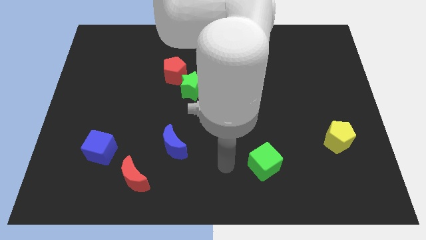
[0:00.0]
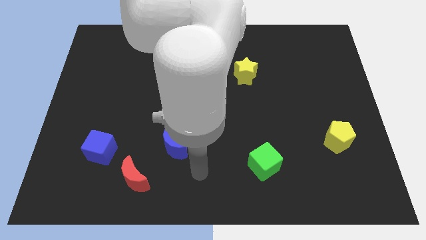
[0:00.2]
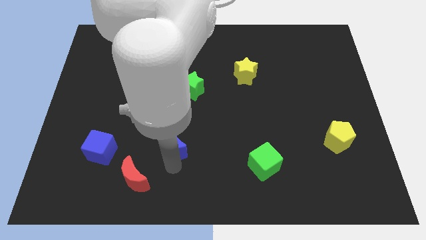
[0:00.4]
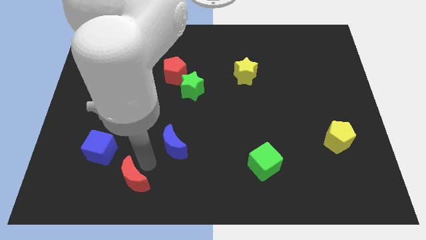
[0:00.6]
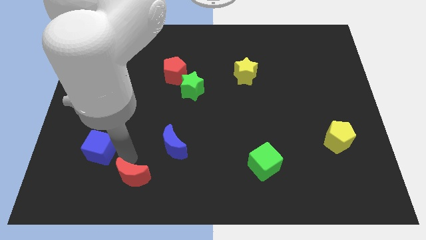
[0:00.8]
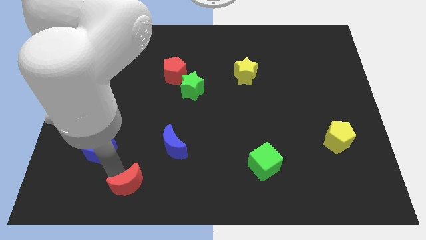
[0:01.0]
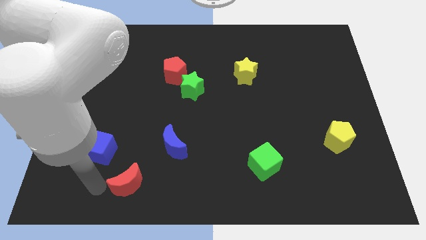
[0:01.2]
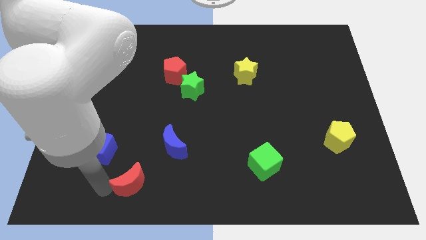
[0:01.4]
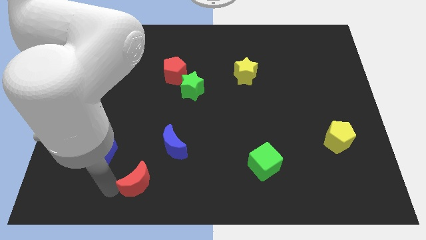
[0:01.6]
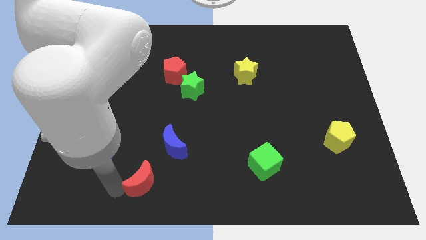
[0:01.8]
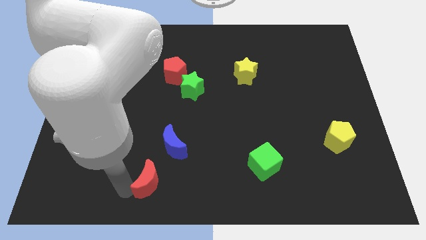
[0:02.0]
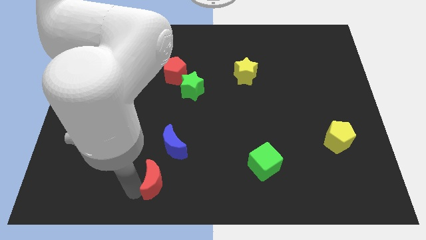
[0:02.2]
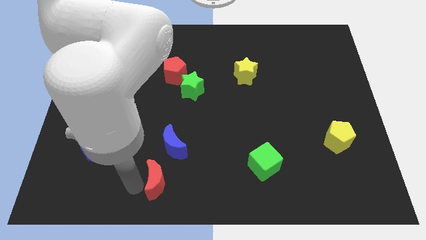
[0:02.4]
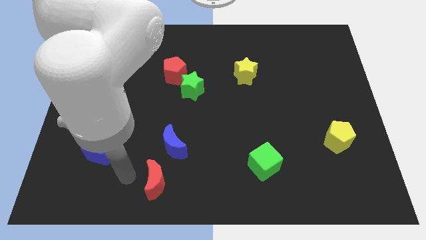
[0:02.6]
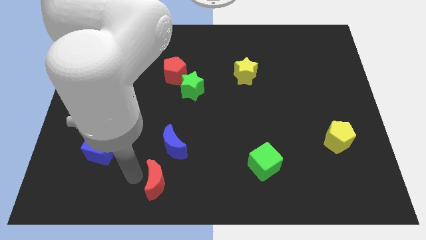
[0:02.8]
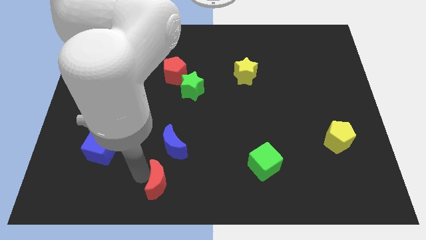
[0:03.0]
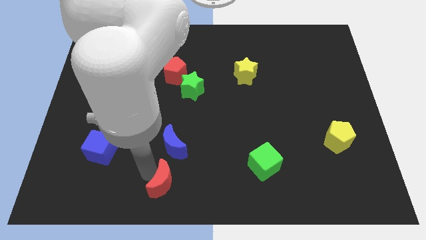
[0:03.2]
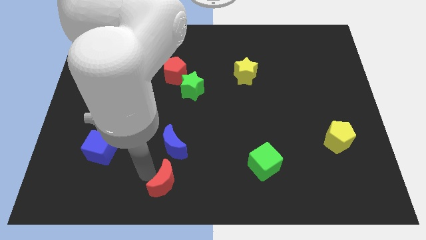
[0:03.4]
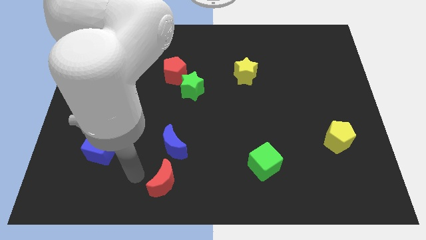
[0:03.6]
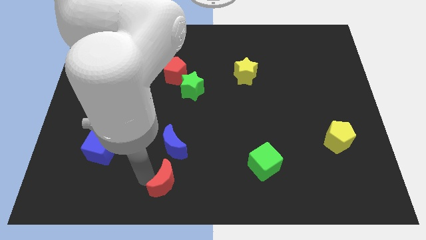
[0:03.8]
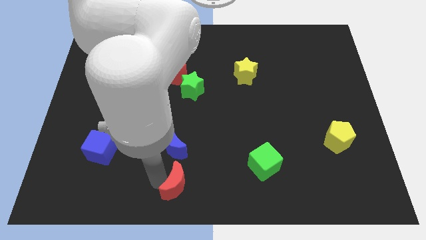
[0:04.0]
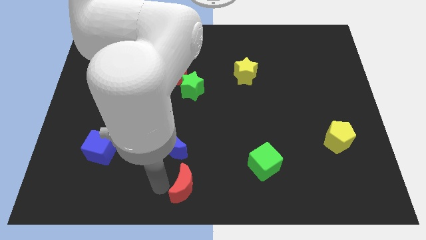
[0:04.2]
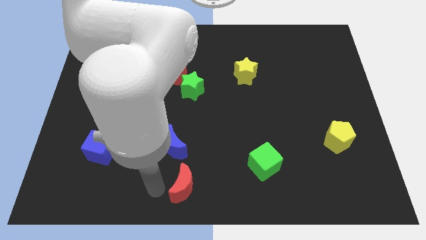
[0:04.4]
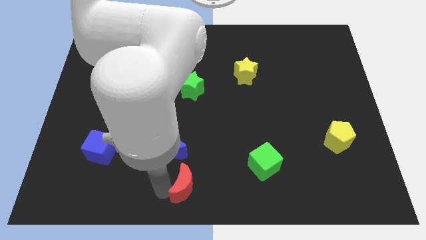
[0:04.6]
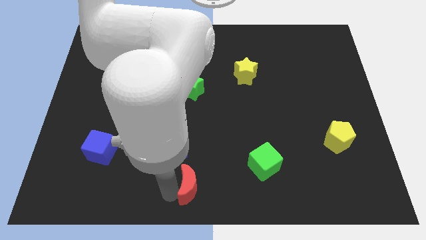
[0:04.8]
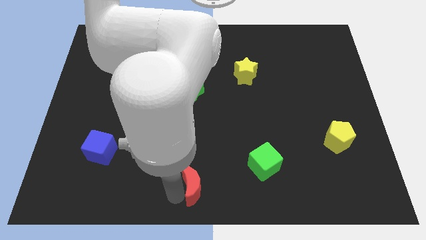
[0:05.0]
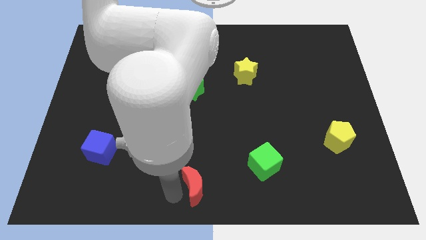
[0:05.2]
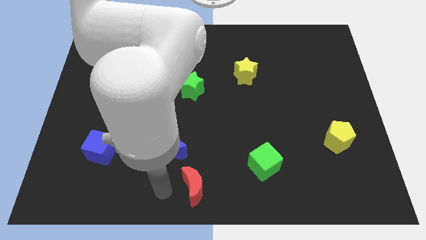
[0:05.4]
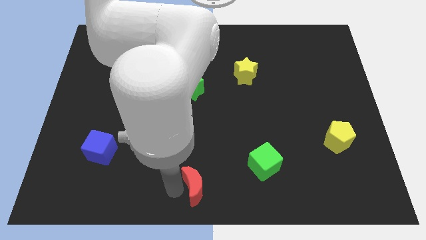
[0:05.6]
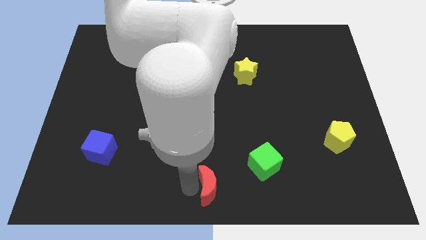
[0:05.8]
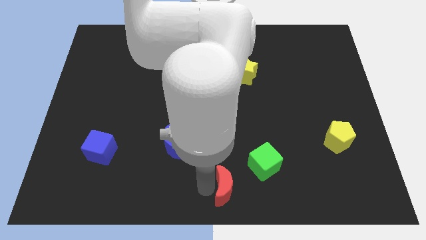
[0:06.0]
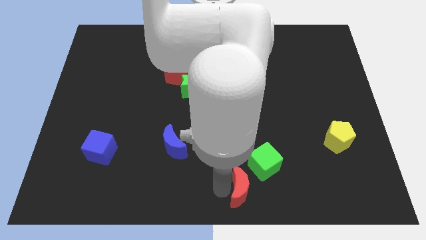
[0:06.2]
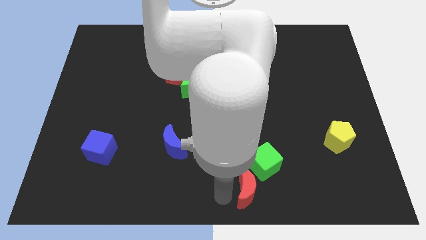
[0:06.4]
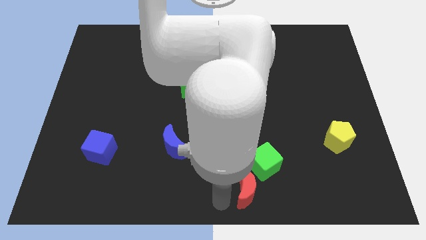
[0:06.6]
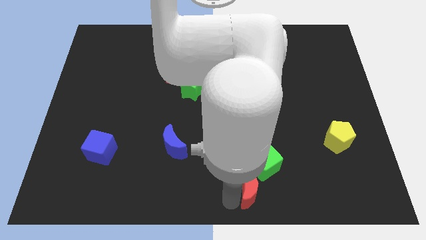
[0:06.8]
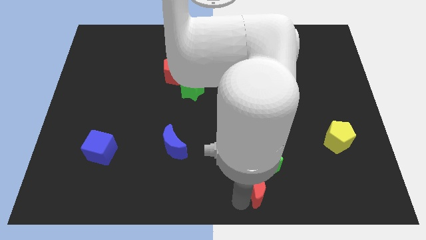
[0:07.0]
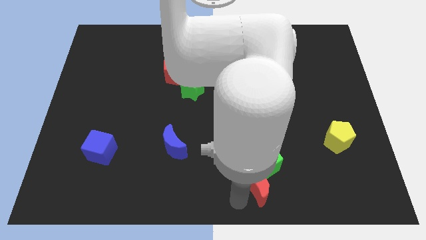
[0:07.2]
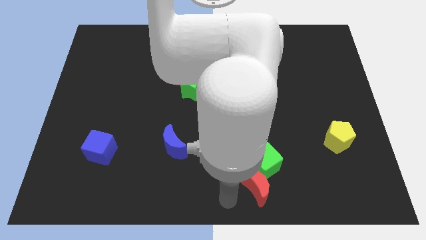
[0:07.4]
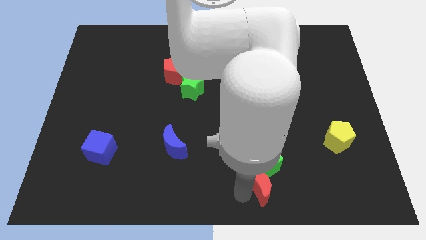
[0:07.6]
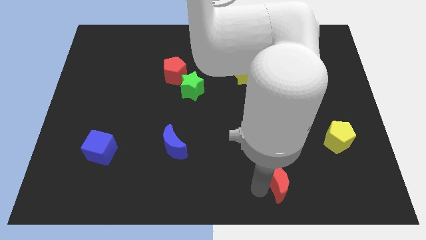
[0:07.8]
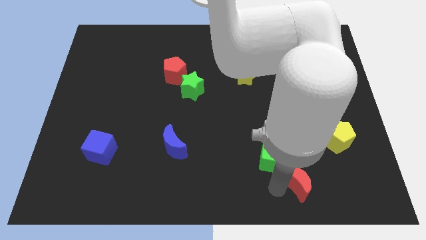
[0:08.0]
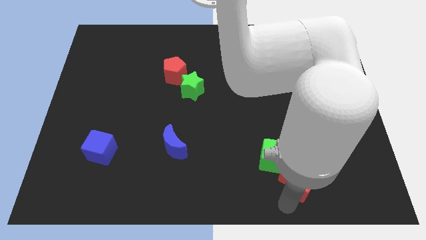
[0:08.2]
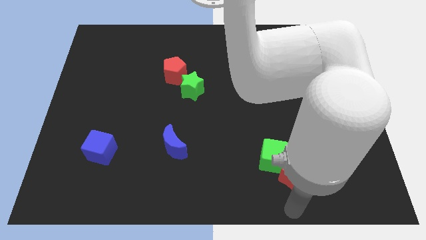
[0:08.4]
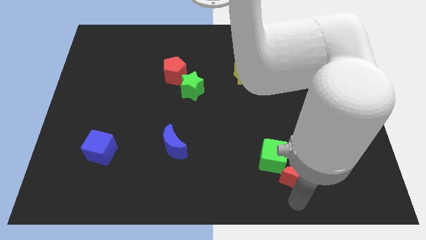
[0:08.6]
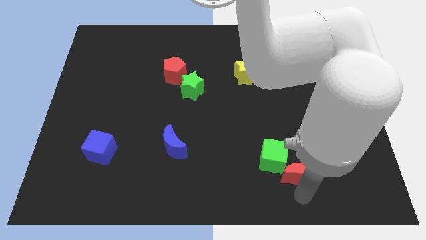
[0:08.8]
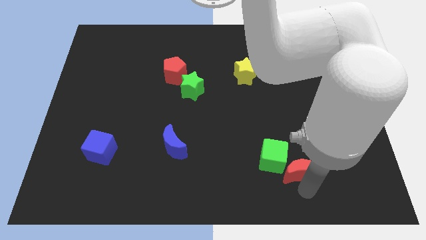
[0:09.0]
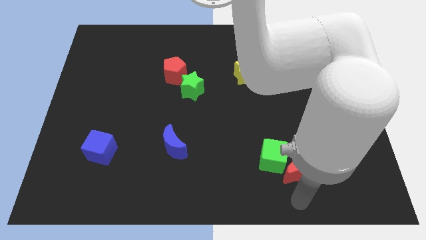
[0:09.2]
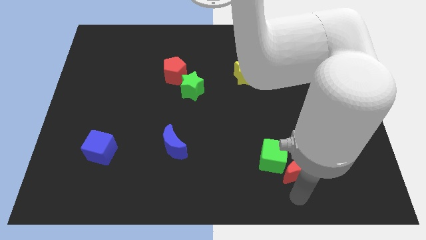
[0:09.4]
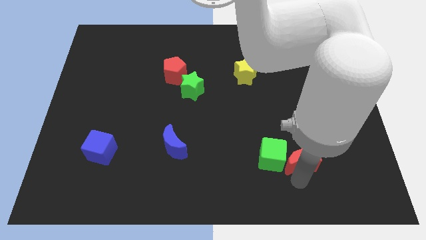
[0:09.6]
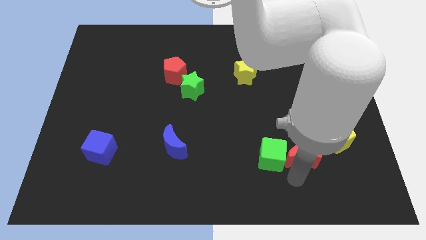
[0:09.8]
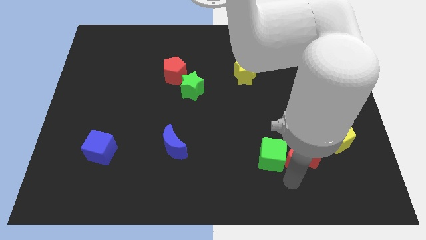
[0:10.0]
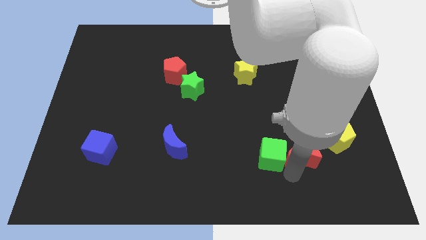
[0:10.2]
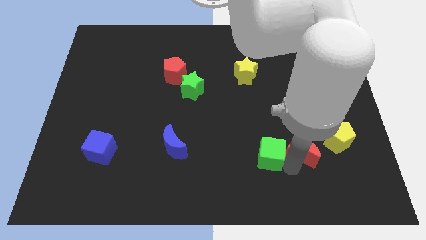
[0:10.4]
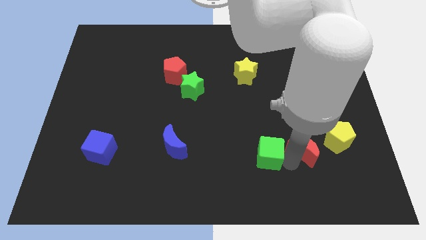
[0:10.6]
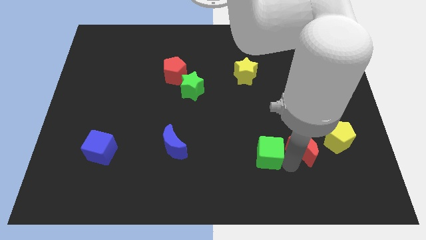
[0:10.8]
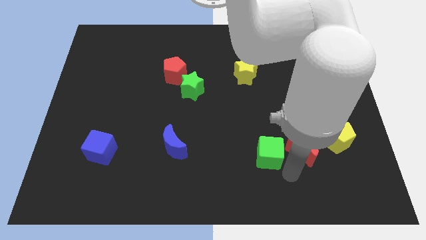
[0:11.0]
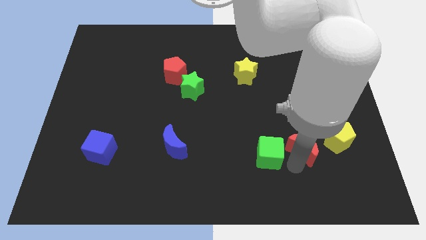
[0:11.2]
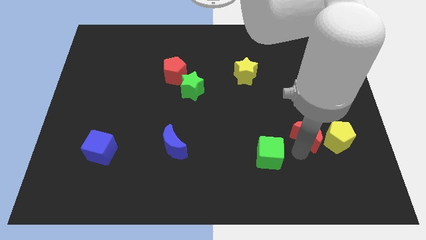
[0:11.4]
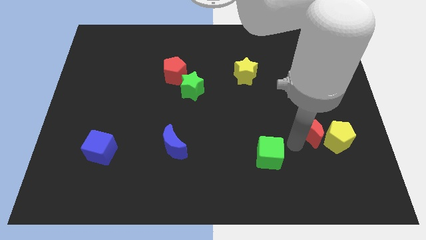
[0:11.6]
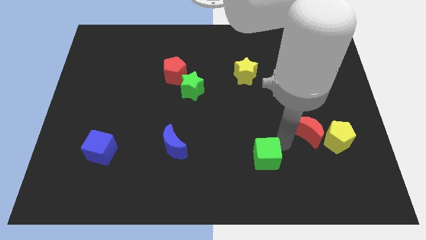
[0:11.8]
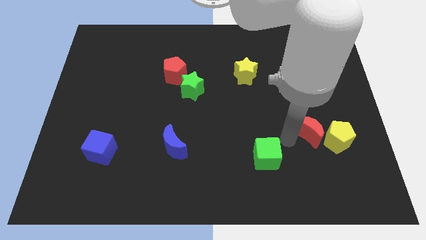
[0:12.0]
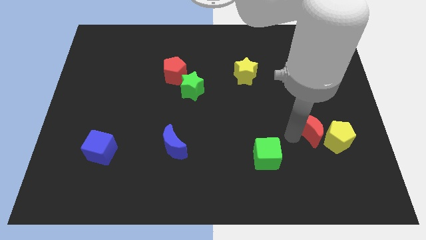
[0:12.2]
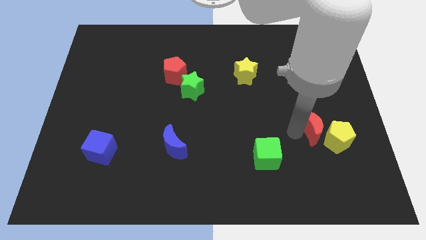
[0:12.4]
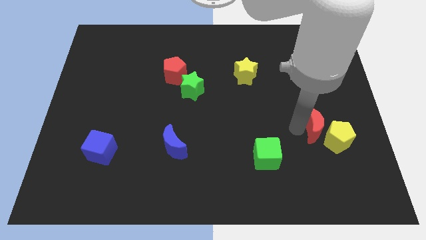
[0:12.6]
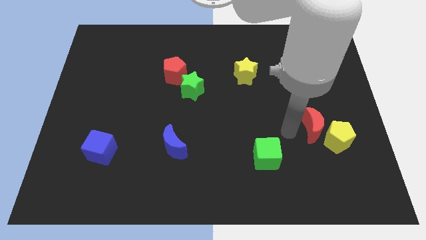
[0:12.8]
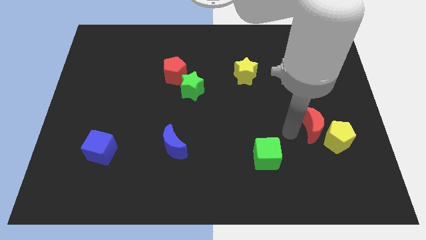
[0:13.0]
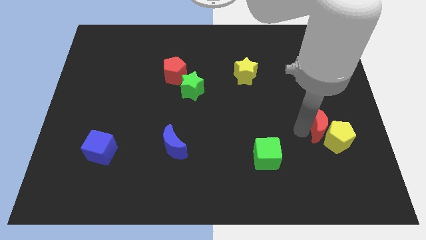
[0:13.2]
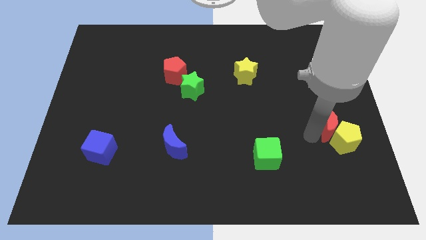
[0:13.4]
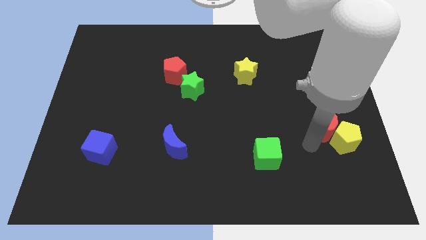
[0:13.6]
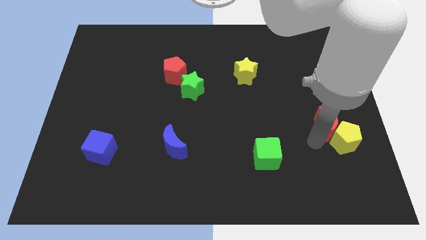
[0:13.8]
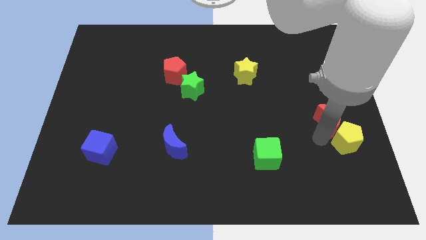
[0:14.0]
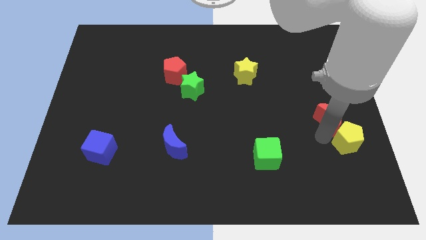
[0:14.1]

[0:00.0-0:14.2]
slide the red moon to the right side of the board
